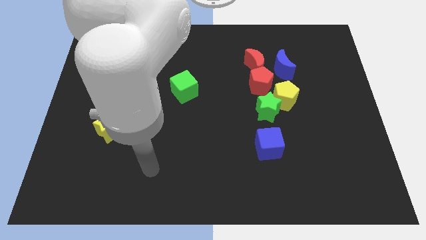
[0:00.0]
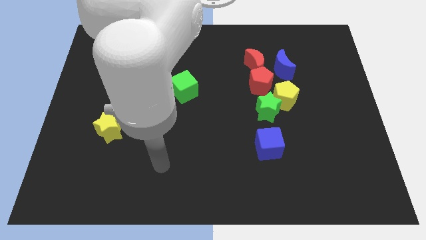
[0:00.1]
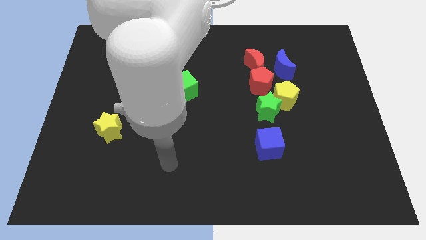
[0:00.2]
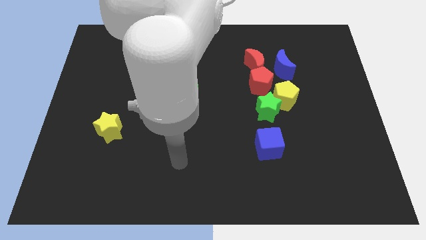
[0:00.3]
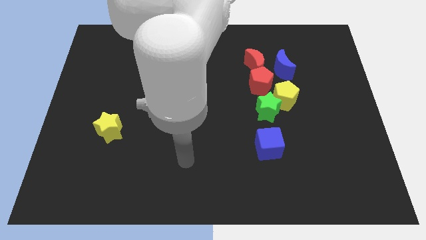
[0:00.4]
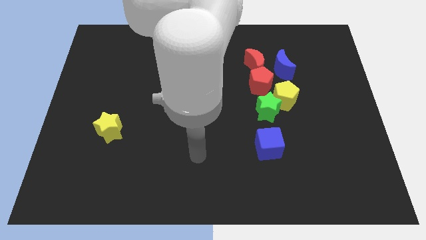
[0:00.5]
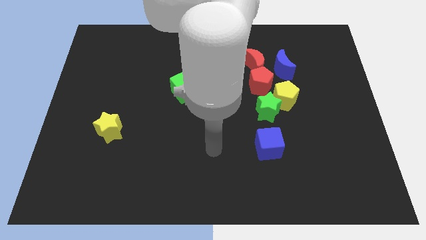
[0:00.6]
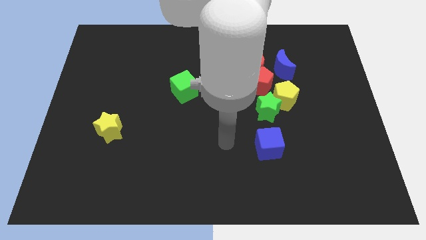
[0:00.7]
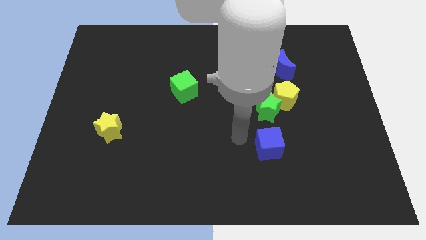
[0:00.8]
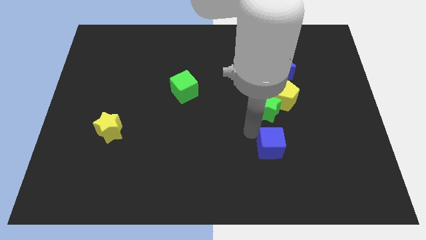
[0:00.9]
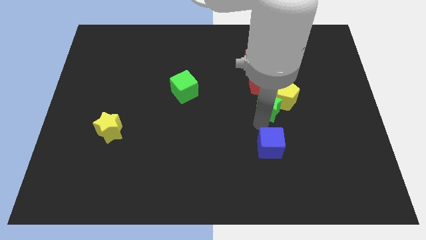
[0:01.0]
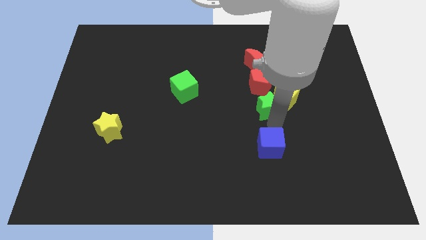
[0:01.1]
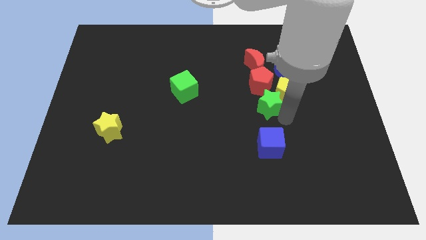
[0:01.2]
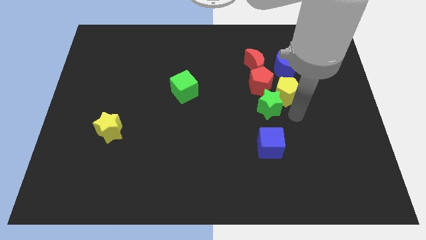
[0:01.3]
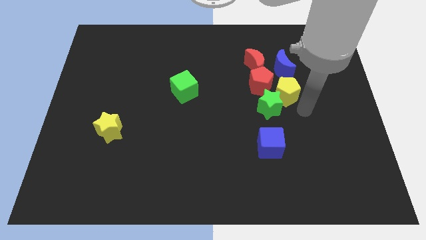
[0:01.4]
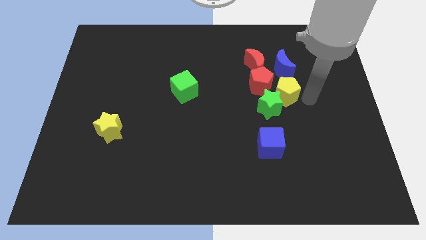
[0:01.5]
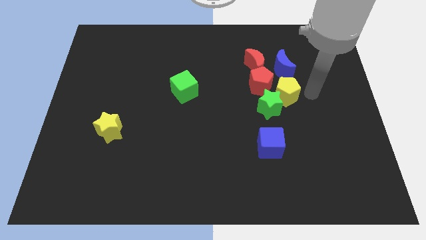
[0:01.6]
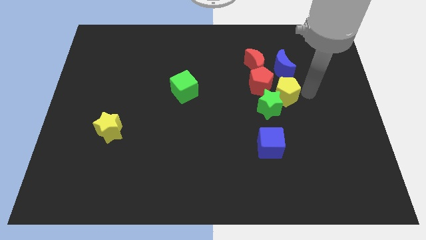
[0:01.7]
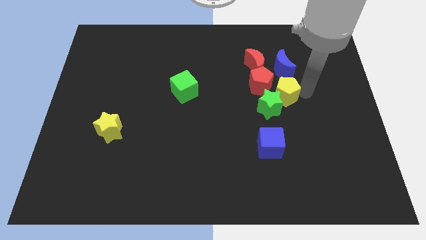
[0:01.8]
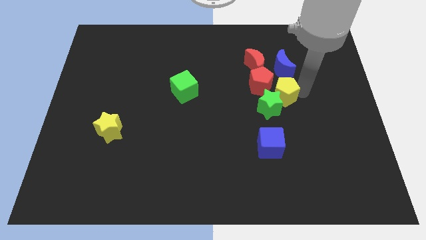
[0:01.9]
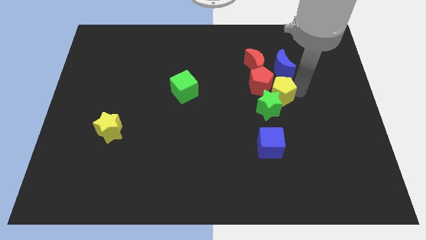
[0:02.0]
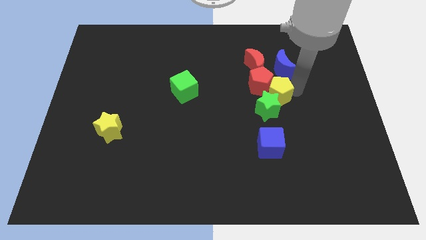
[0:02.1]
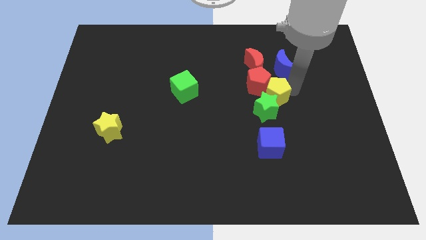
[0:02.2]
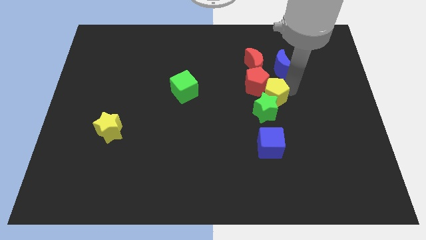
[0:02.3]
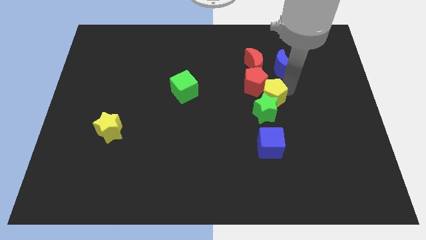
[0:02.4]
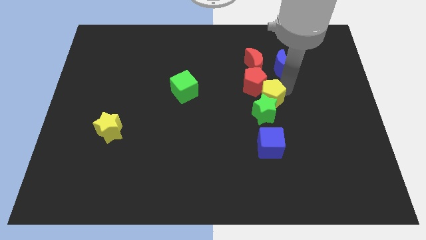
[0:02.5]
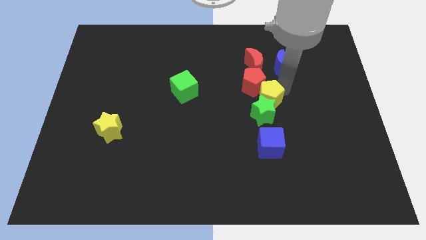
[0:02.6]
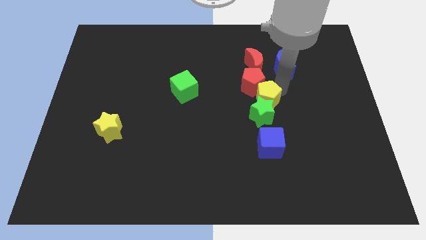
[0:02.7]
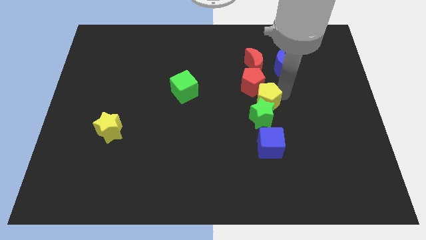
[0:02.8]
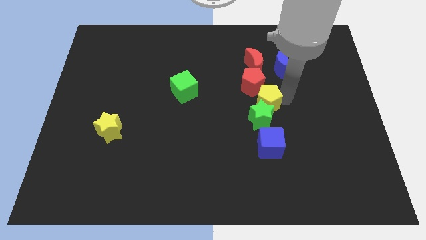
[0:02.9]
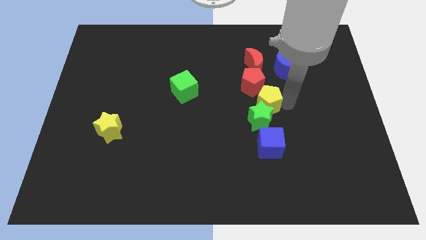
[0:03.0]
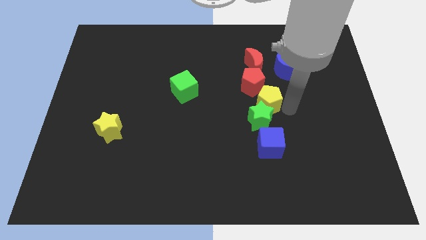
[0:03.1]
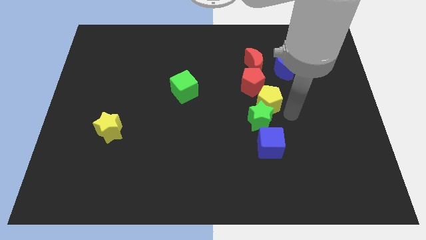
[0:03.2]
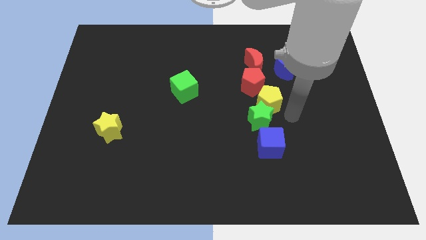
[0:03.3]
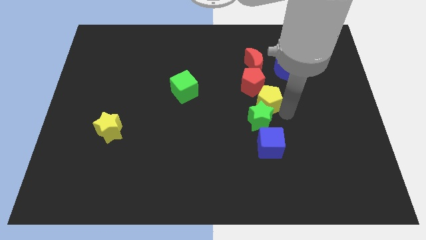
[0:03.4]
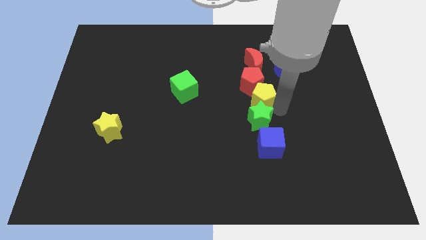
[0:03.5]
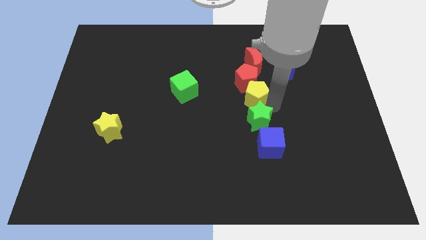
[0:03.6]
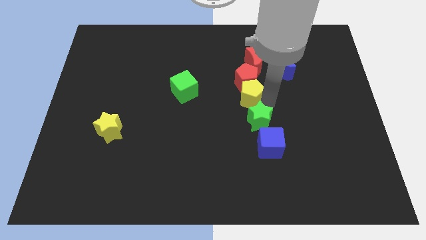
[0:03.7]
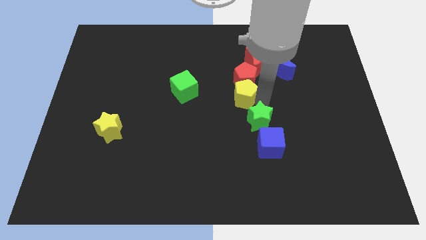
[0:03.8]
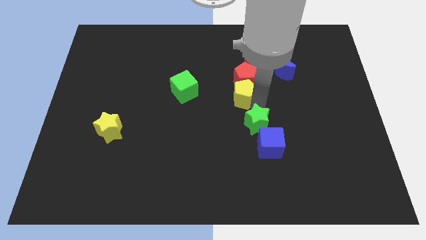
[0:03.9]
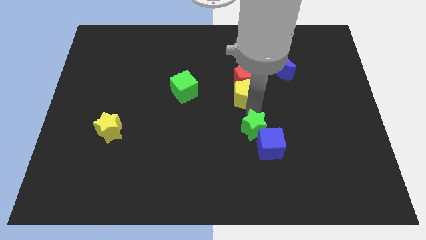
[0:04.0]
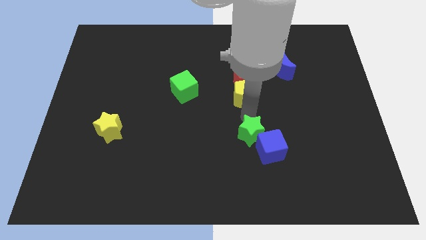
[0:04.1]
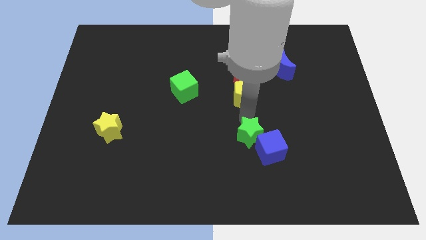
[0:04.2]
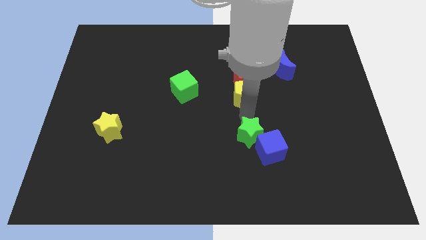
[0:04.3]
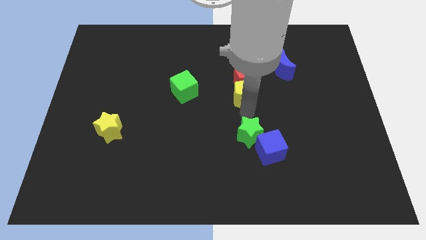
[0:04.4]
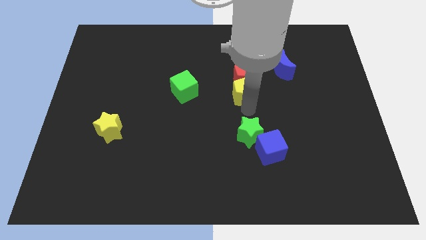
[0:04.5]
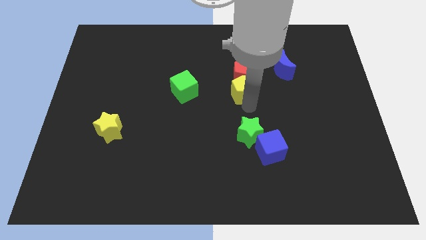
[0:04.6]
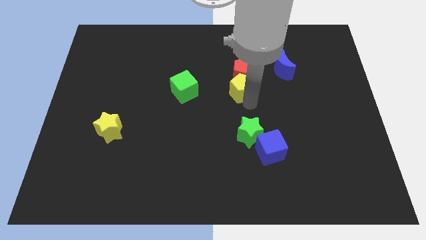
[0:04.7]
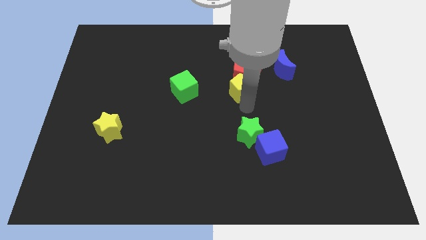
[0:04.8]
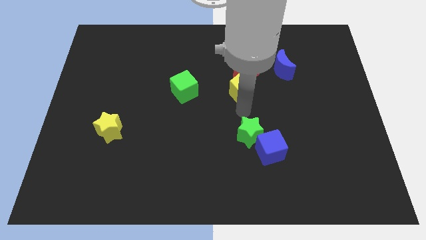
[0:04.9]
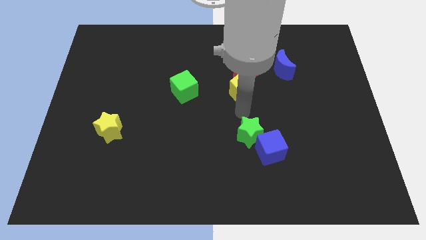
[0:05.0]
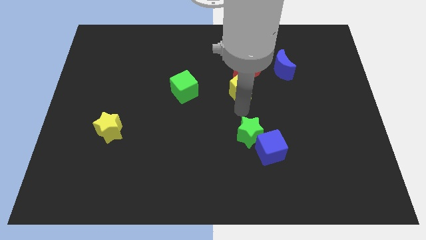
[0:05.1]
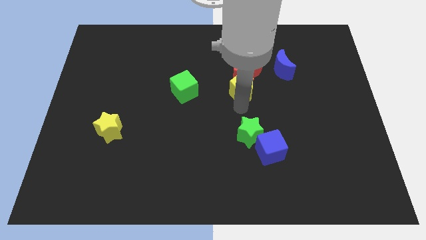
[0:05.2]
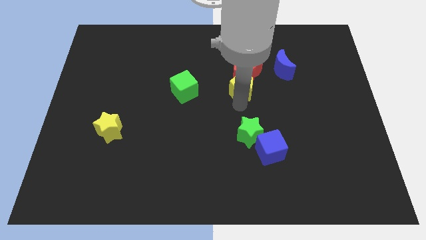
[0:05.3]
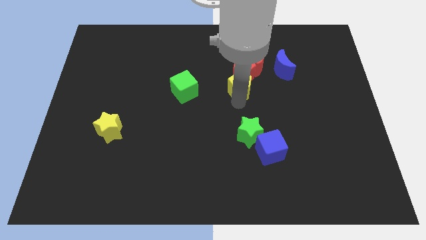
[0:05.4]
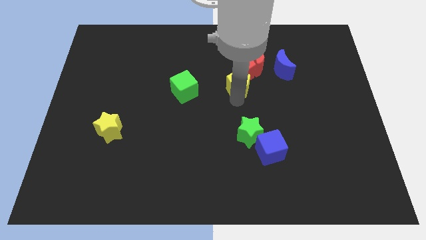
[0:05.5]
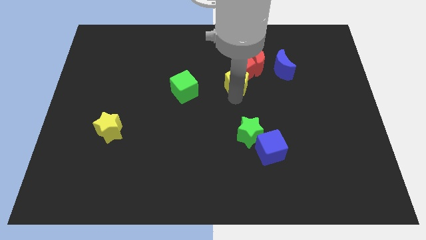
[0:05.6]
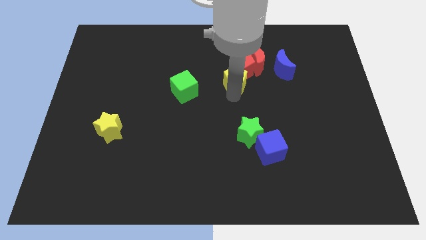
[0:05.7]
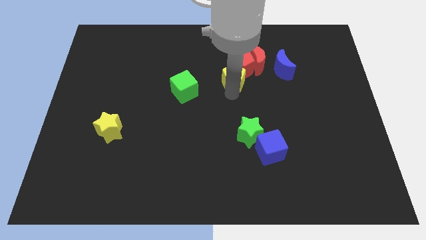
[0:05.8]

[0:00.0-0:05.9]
put the yellow pentagon left of the blue moon
